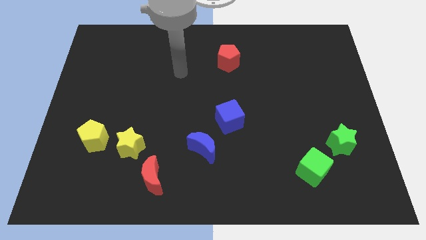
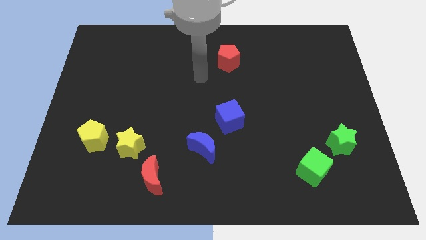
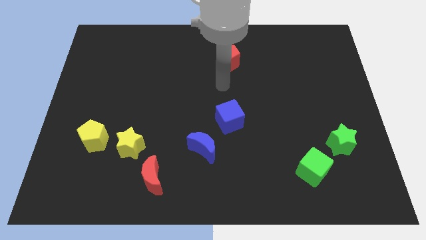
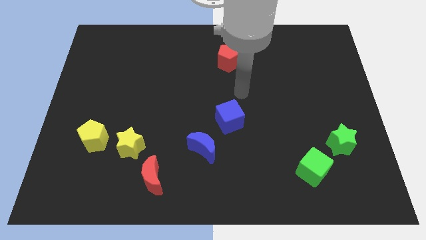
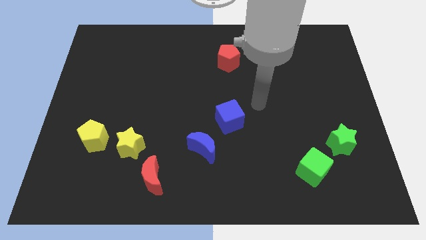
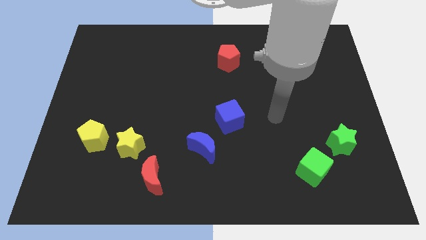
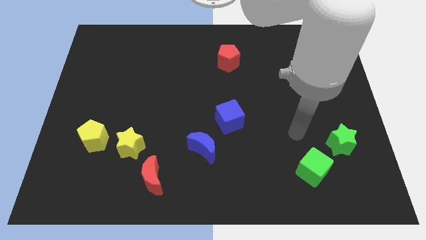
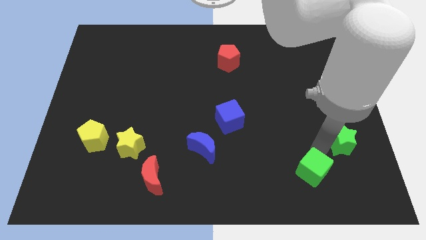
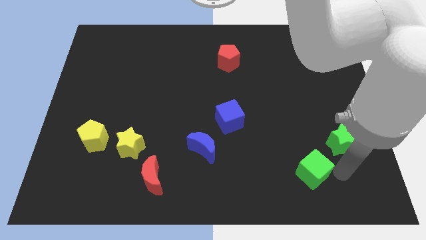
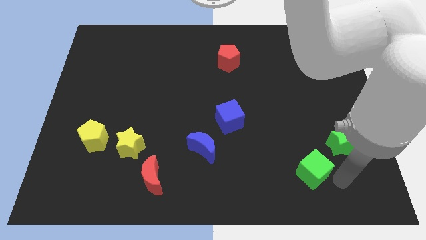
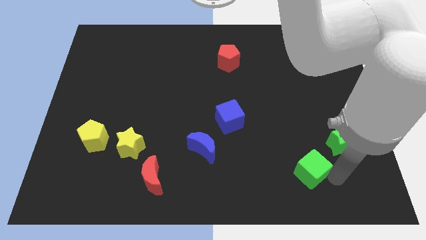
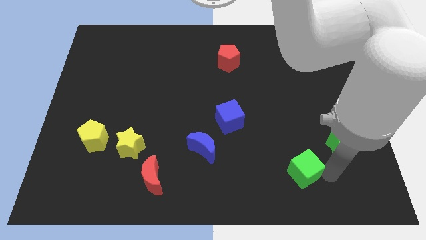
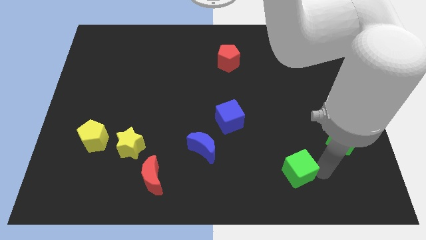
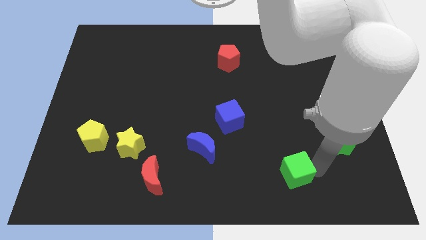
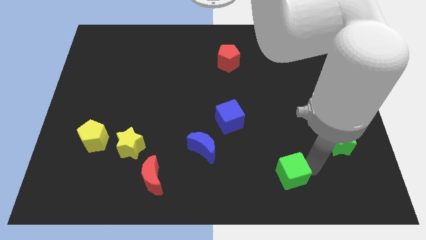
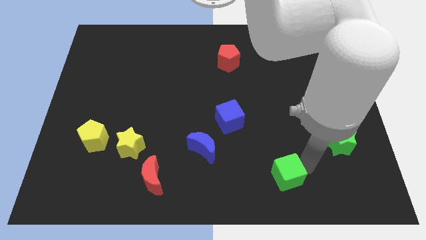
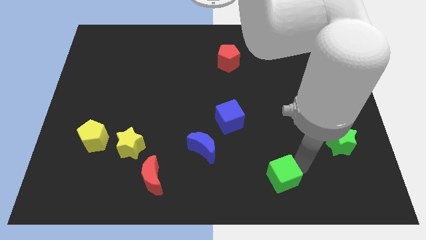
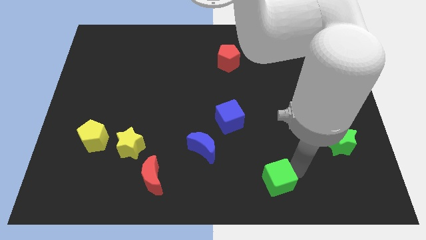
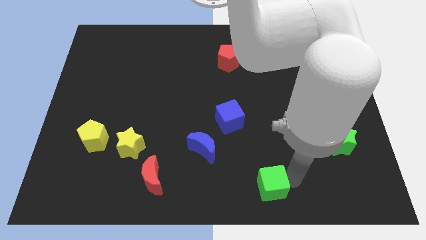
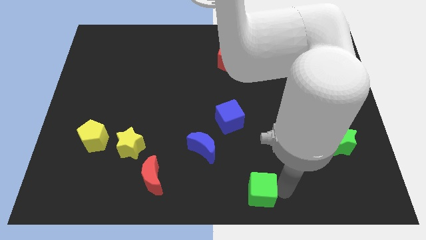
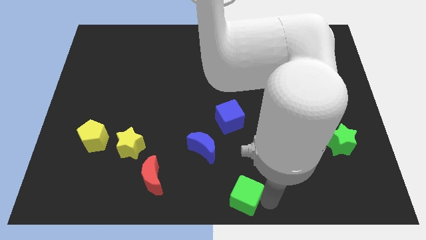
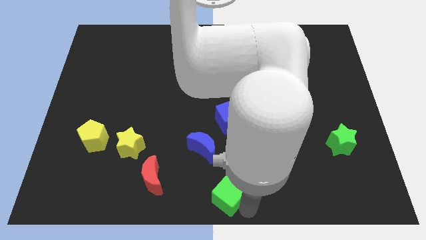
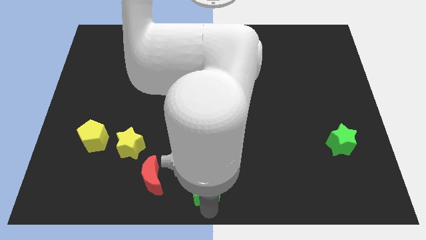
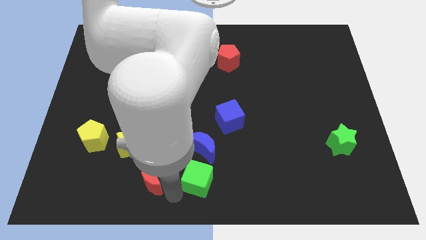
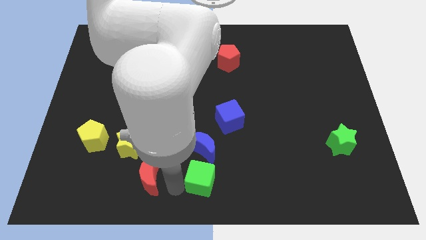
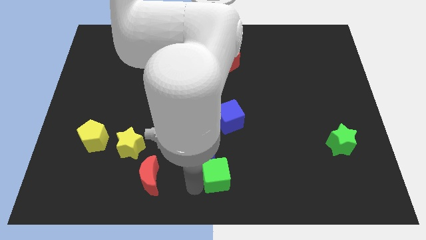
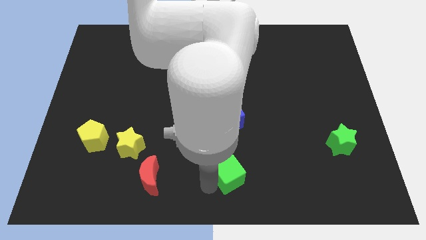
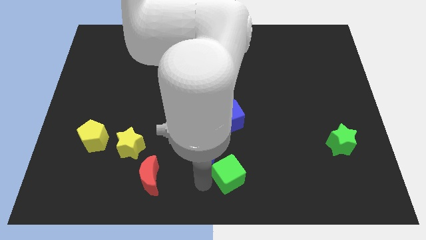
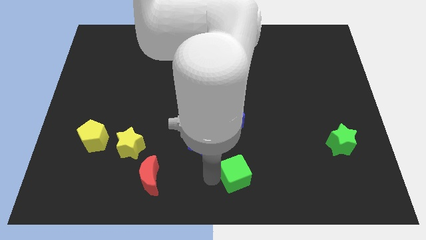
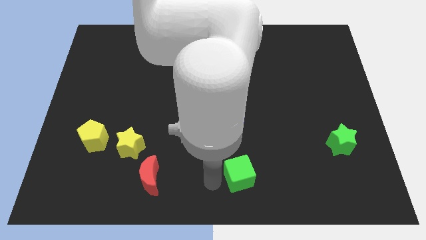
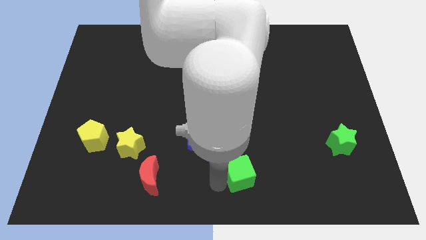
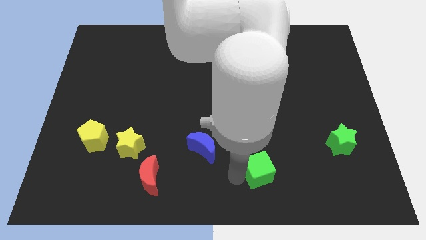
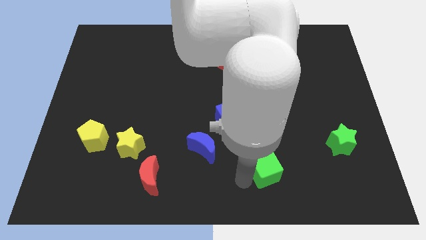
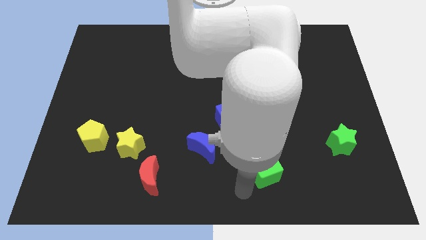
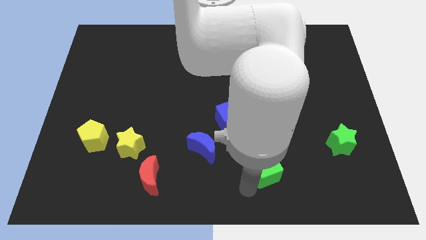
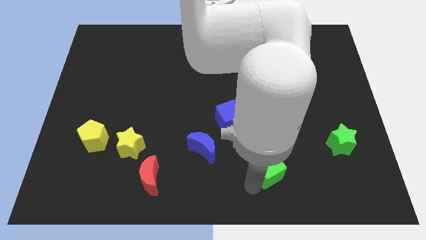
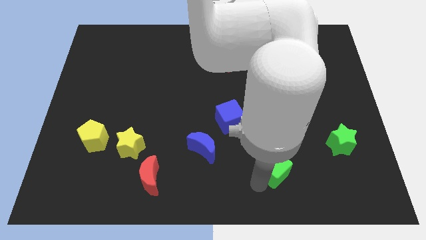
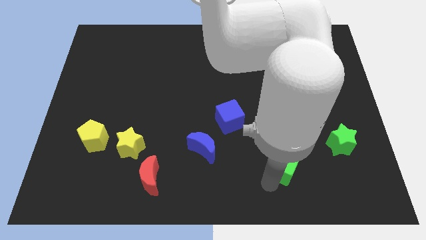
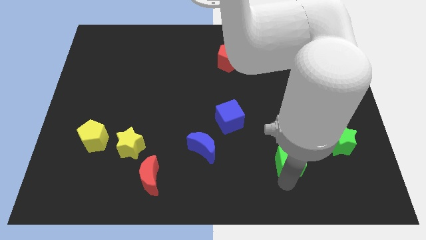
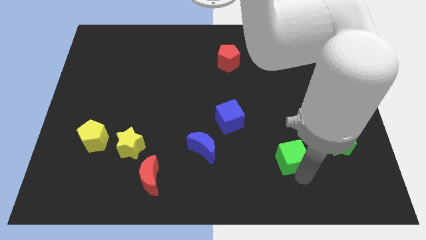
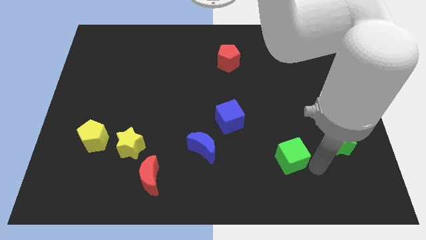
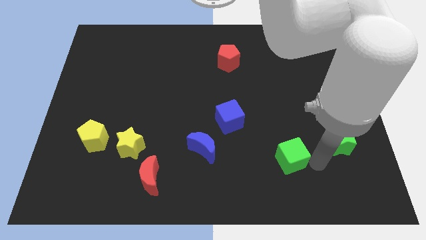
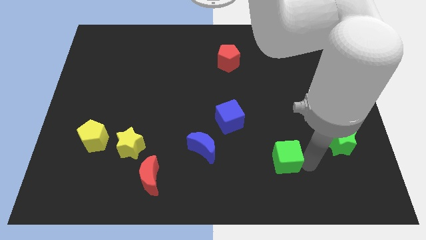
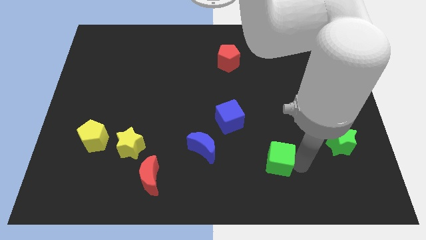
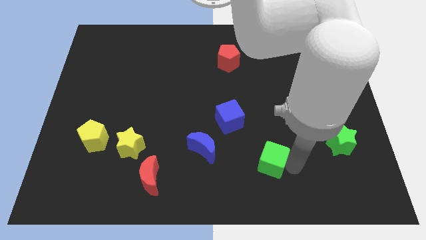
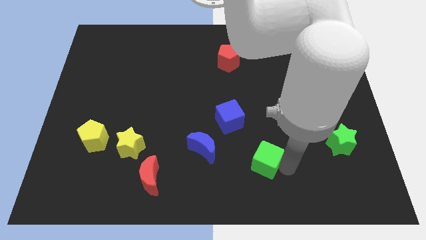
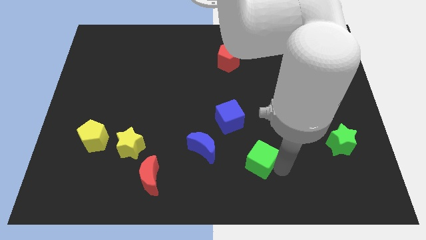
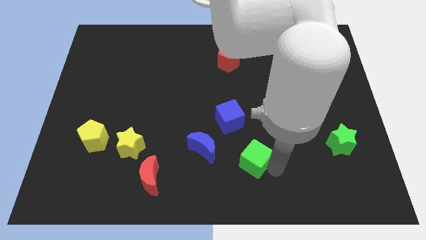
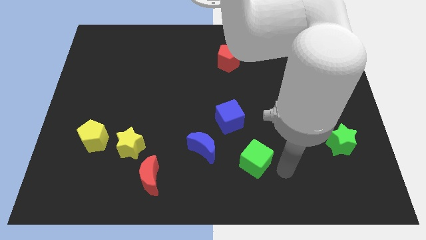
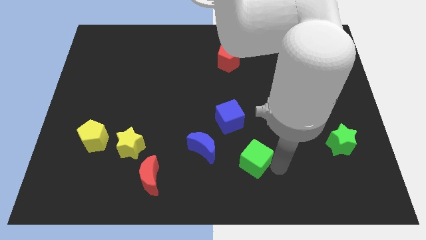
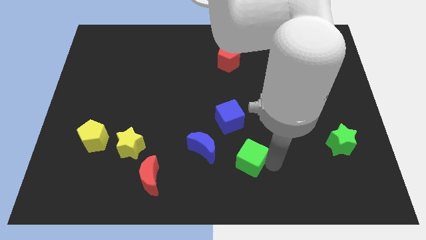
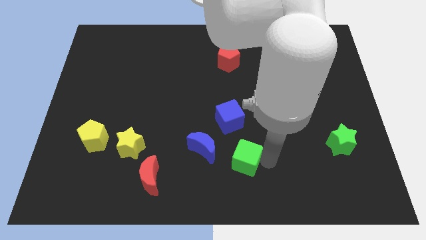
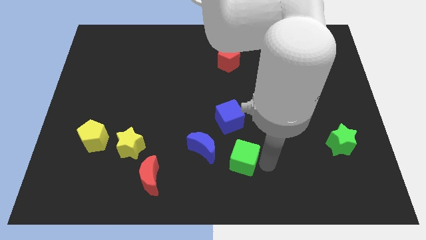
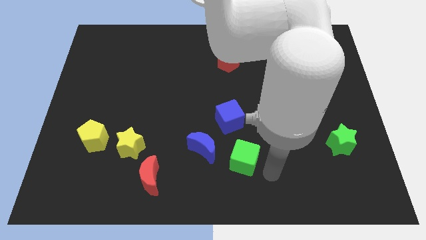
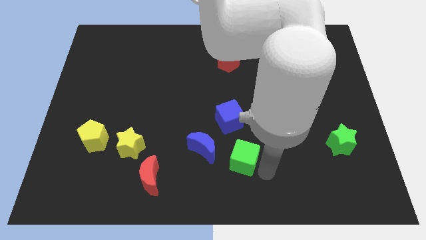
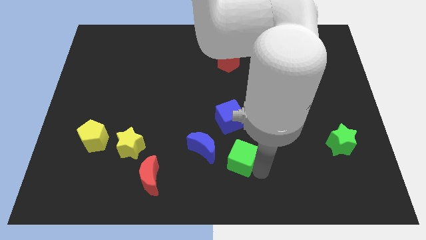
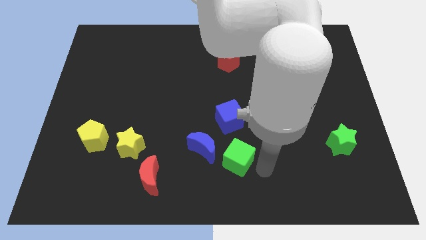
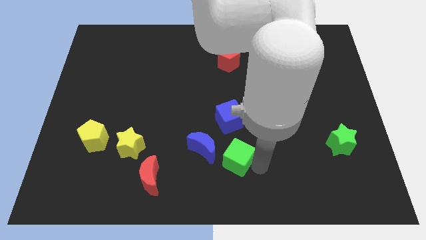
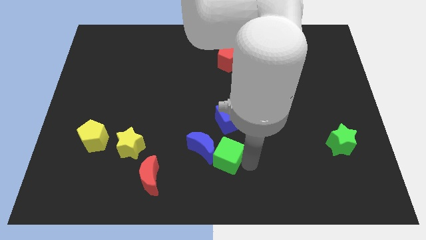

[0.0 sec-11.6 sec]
move the green cube next to the blue moon
